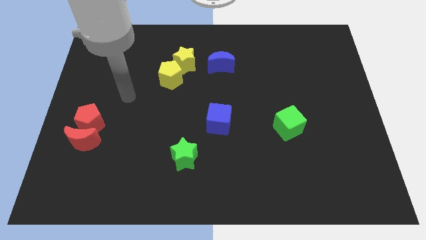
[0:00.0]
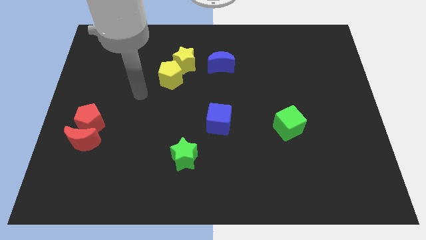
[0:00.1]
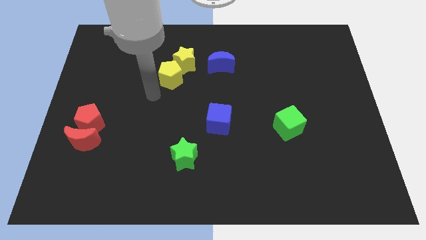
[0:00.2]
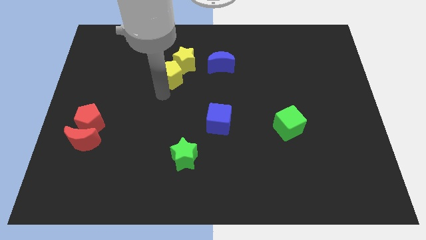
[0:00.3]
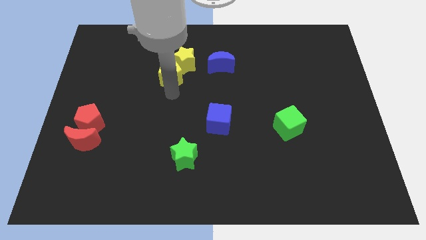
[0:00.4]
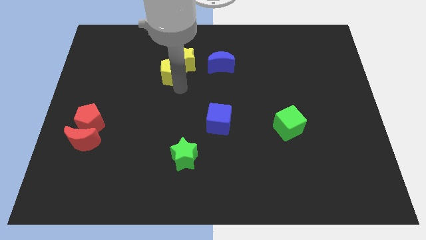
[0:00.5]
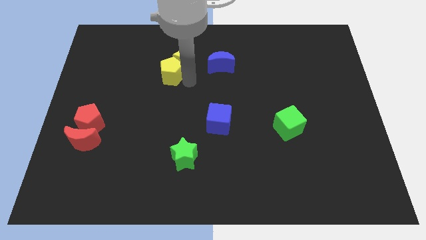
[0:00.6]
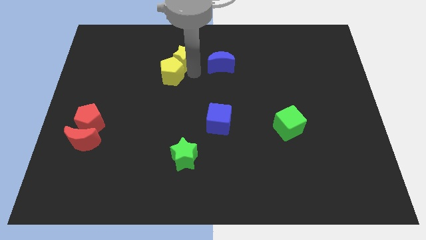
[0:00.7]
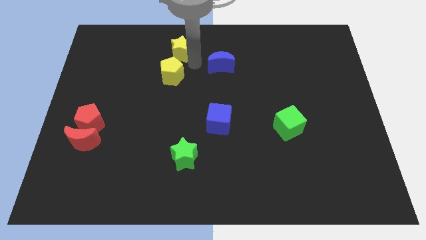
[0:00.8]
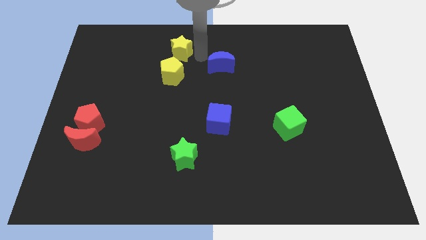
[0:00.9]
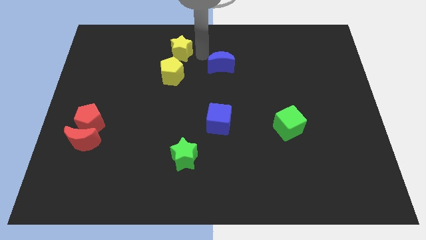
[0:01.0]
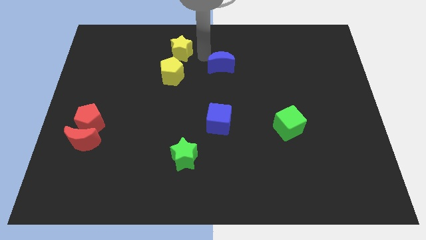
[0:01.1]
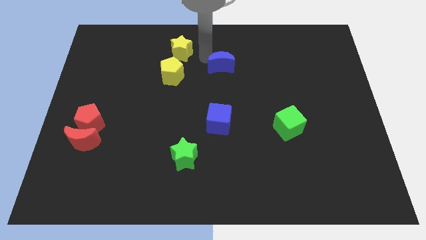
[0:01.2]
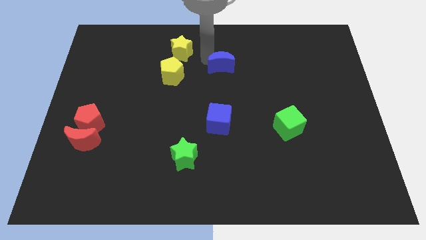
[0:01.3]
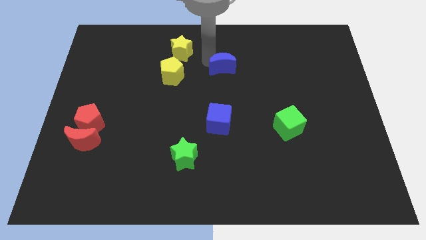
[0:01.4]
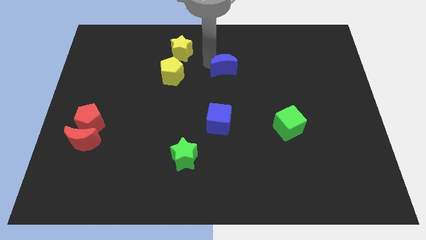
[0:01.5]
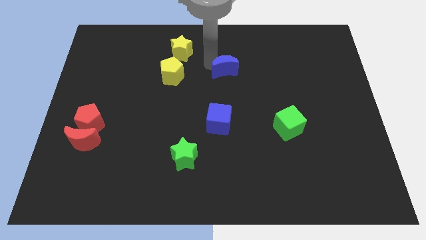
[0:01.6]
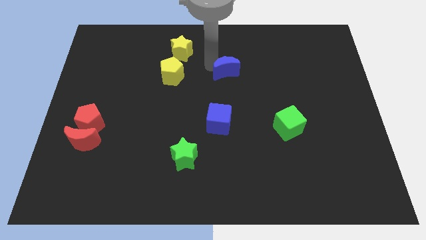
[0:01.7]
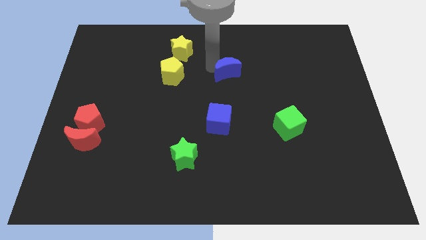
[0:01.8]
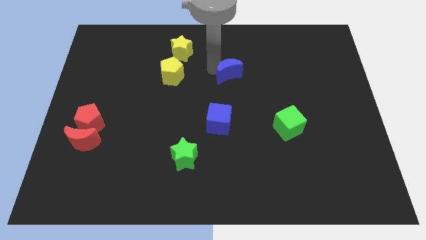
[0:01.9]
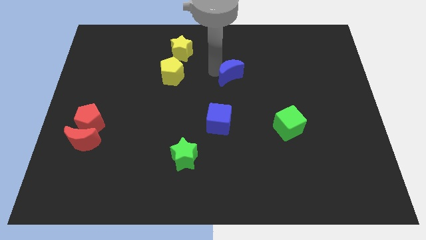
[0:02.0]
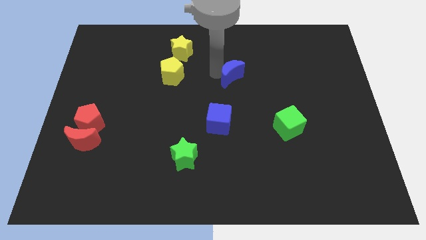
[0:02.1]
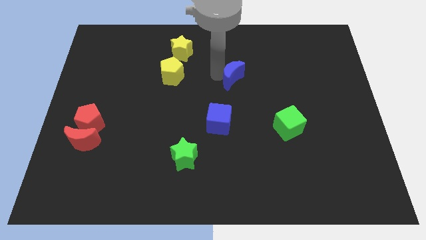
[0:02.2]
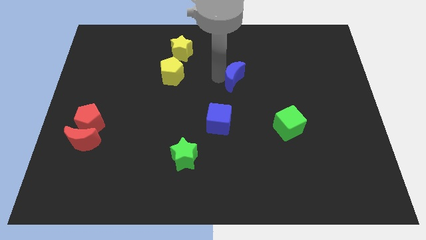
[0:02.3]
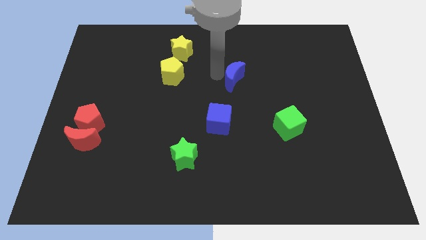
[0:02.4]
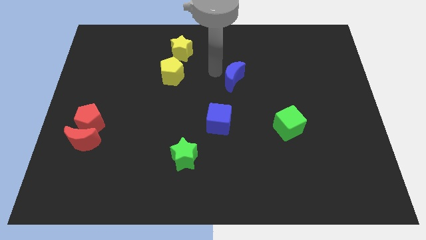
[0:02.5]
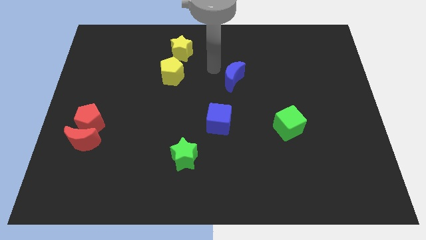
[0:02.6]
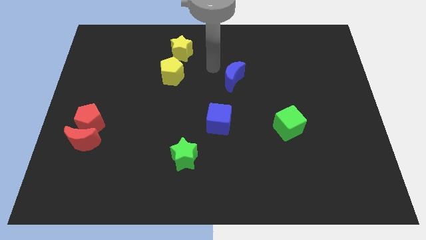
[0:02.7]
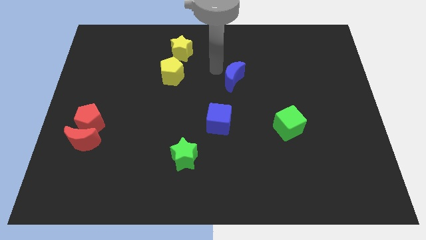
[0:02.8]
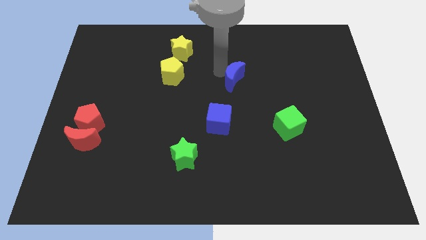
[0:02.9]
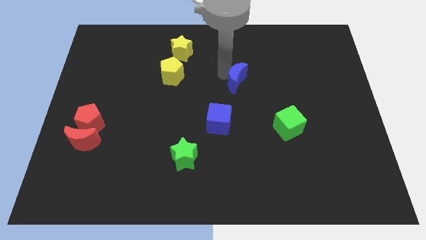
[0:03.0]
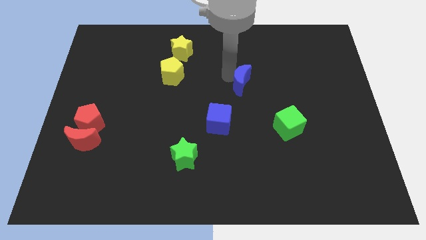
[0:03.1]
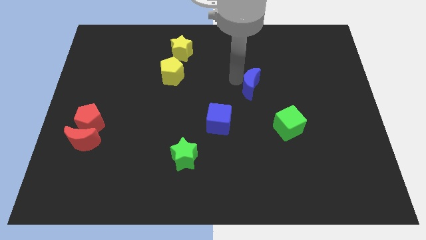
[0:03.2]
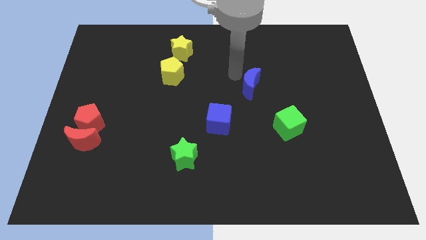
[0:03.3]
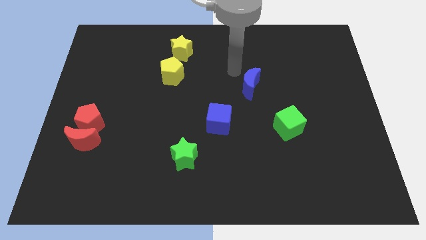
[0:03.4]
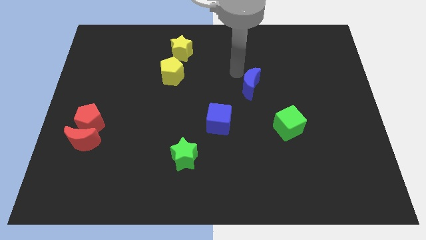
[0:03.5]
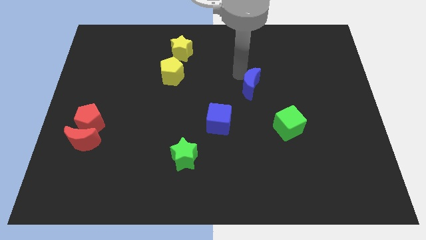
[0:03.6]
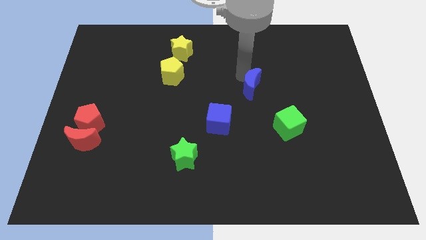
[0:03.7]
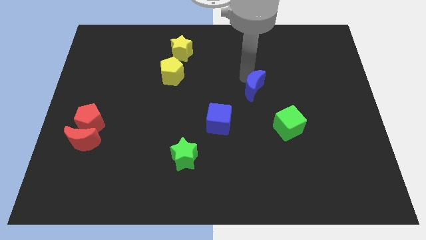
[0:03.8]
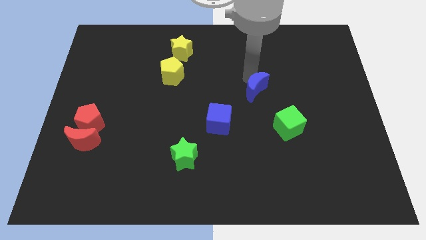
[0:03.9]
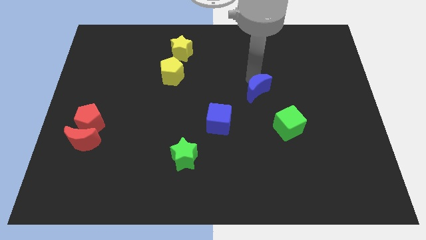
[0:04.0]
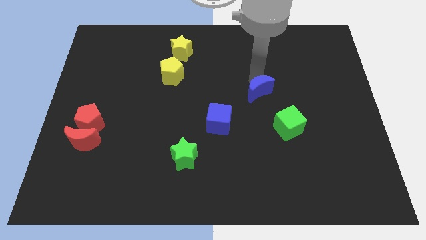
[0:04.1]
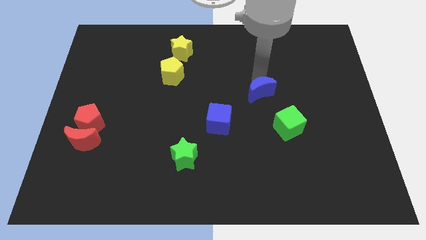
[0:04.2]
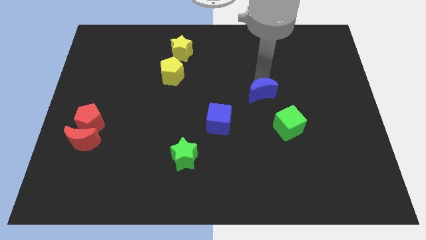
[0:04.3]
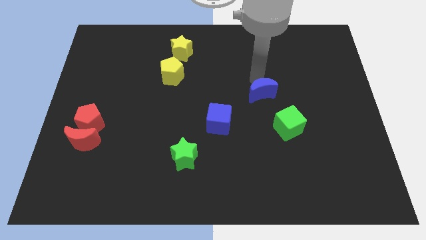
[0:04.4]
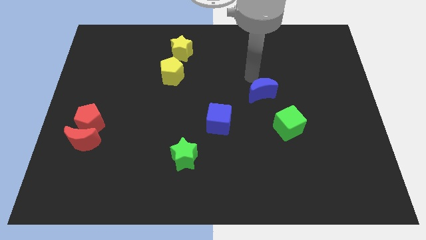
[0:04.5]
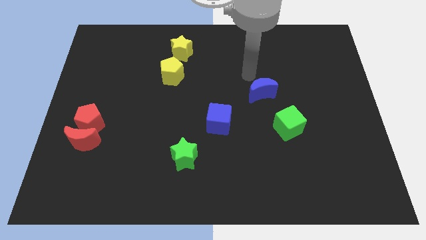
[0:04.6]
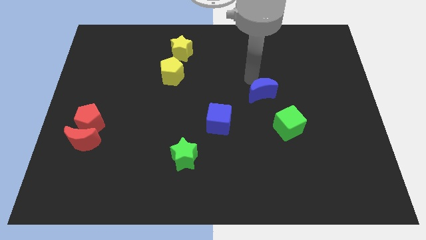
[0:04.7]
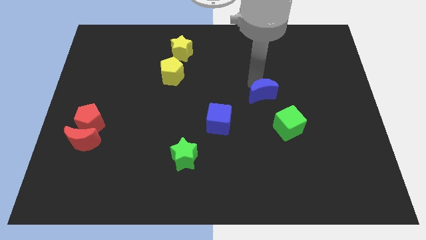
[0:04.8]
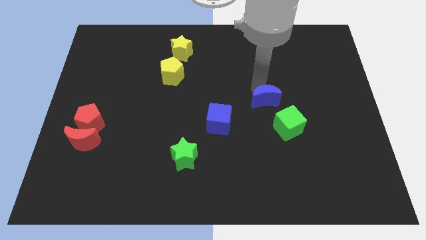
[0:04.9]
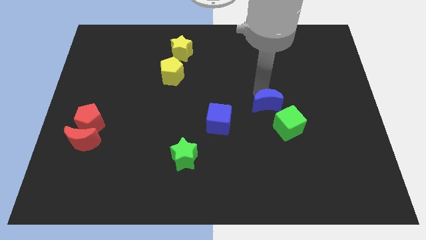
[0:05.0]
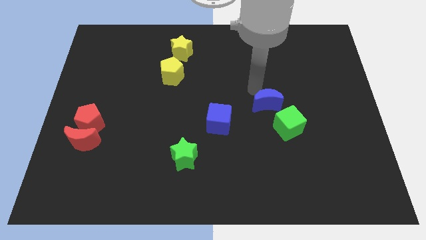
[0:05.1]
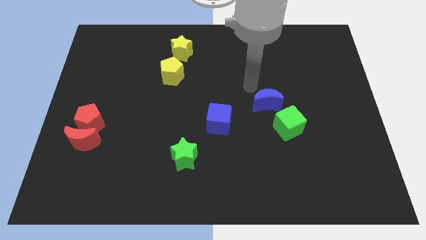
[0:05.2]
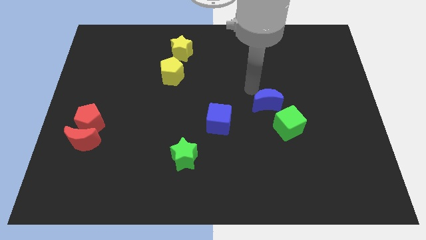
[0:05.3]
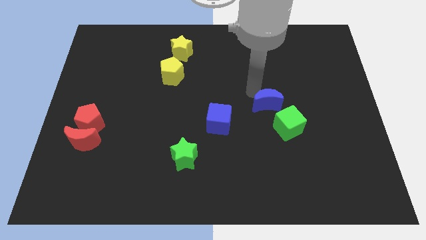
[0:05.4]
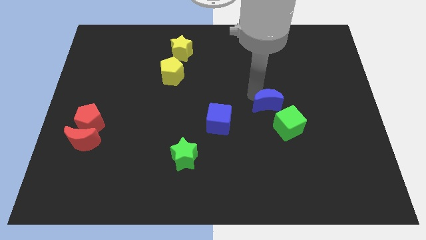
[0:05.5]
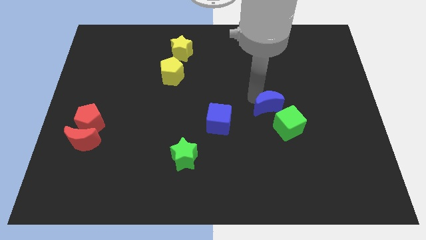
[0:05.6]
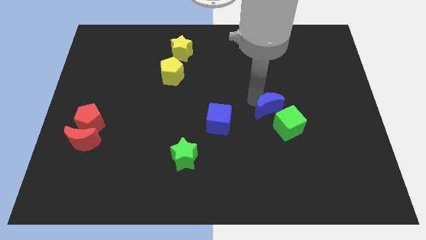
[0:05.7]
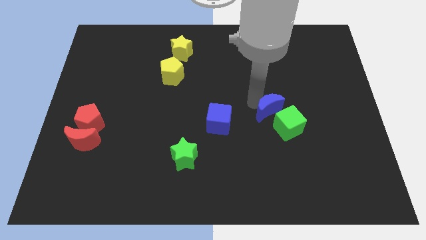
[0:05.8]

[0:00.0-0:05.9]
move the blue moon to the green cube

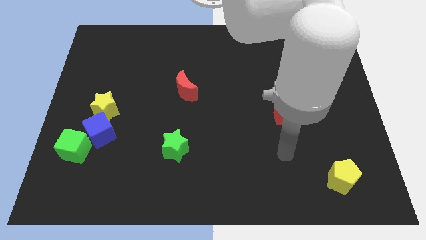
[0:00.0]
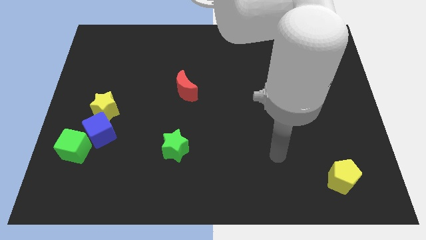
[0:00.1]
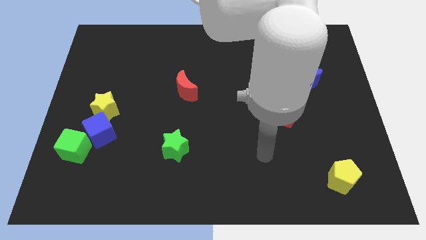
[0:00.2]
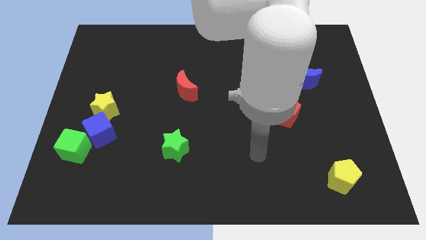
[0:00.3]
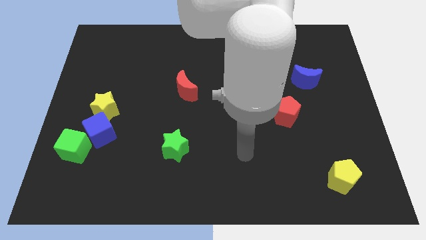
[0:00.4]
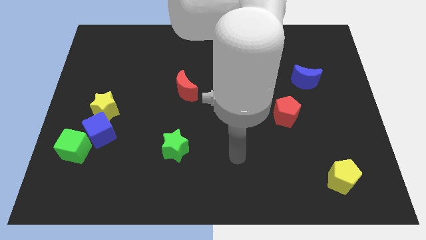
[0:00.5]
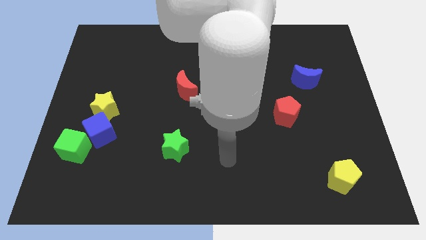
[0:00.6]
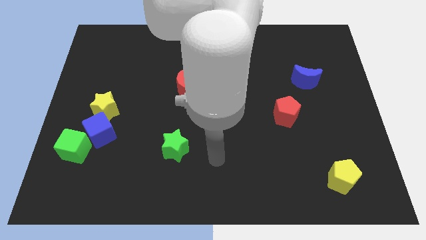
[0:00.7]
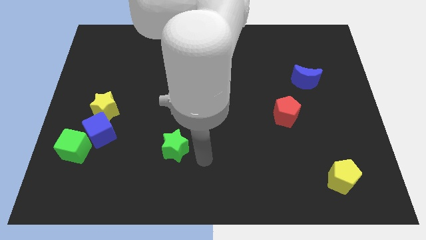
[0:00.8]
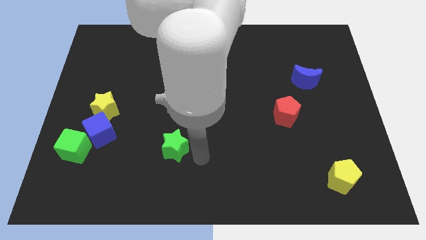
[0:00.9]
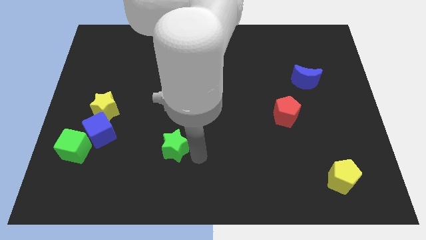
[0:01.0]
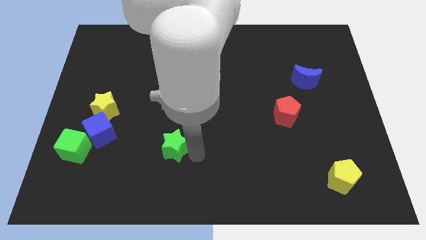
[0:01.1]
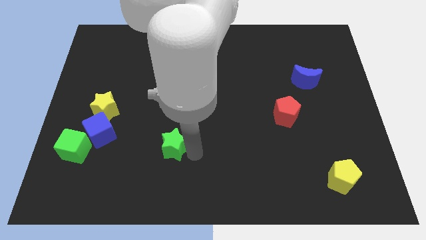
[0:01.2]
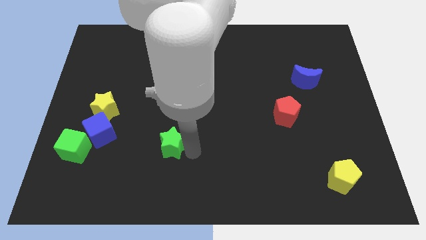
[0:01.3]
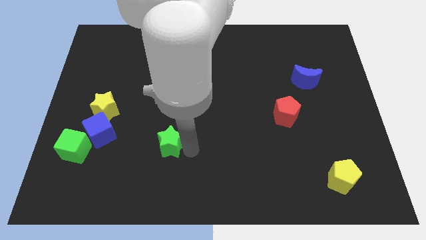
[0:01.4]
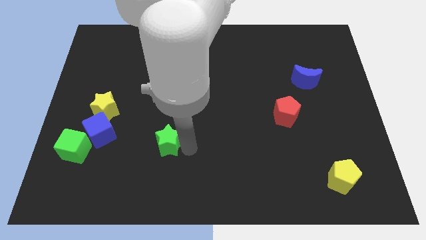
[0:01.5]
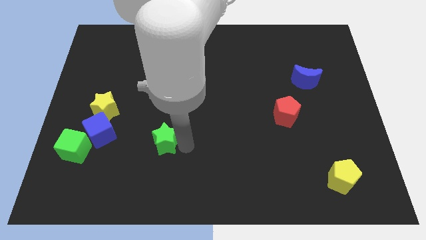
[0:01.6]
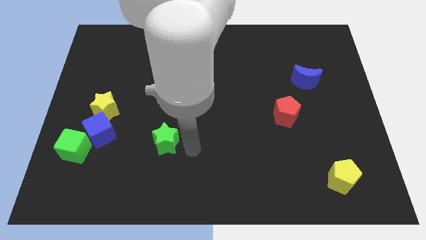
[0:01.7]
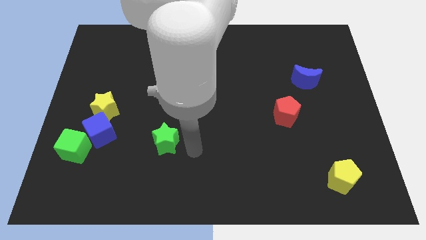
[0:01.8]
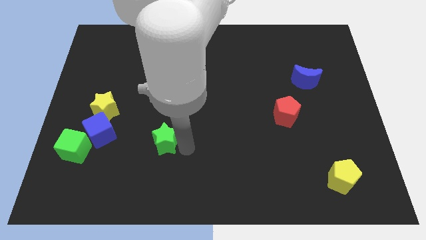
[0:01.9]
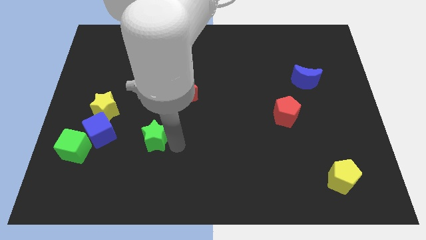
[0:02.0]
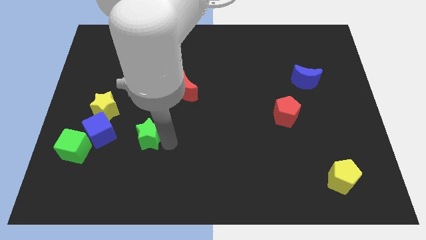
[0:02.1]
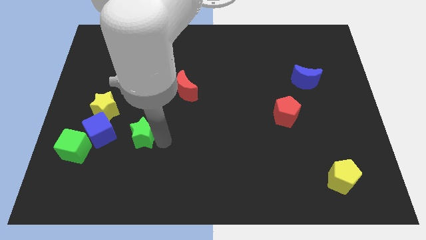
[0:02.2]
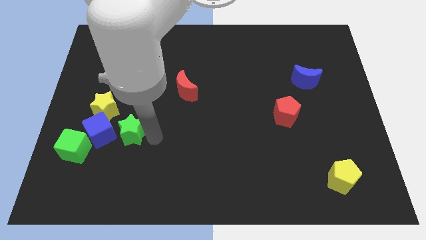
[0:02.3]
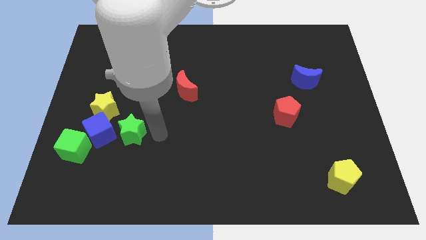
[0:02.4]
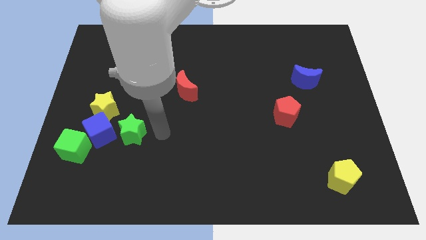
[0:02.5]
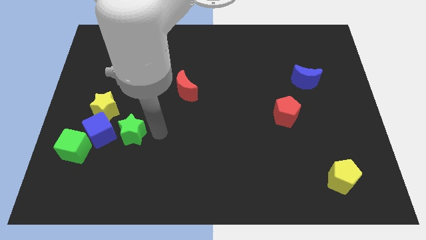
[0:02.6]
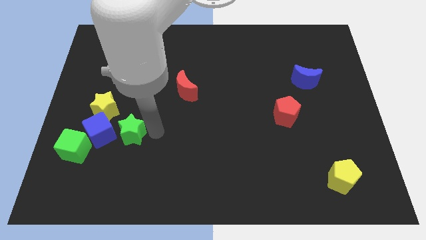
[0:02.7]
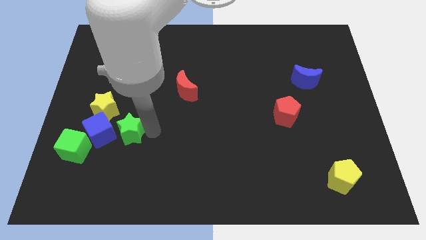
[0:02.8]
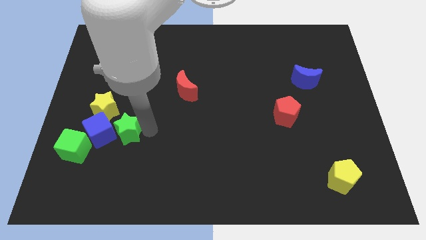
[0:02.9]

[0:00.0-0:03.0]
slide the green star next to the blue cube
